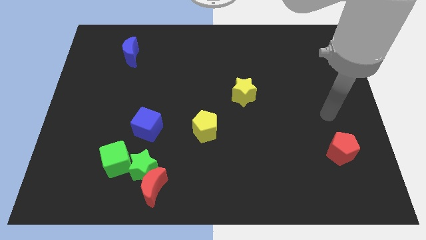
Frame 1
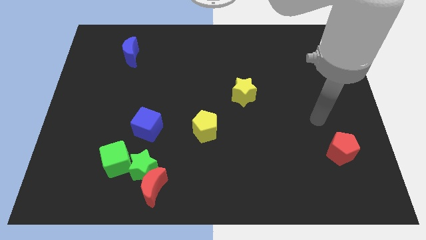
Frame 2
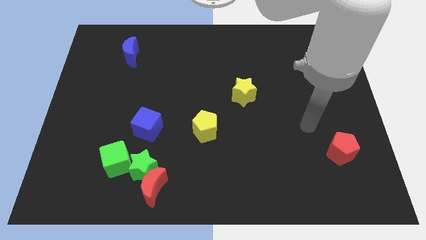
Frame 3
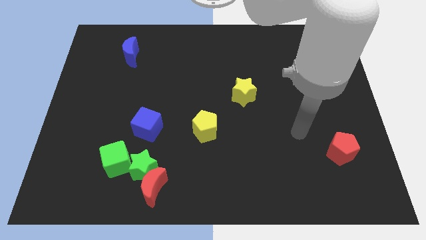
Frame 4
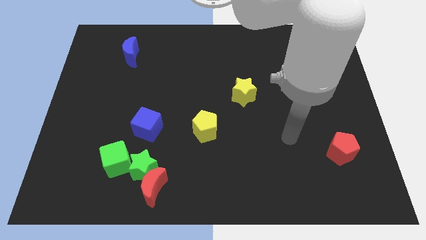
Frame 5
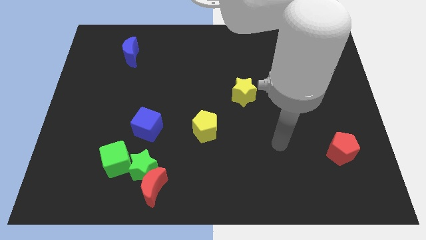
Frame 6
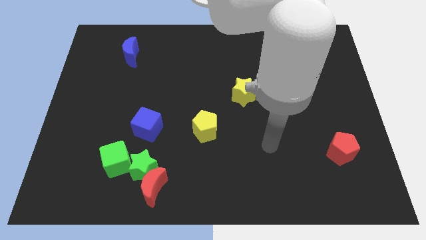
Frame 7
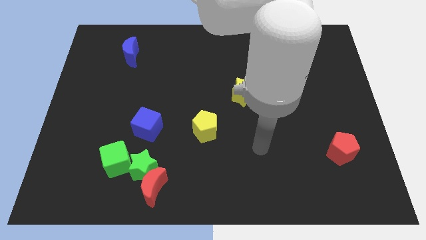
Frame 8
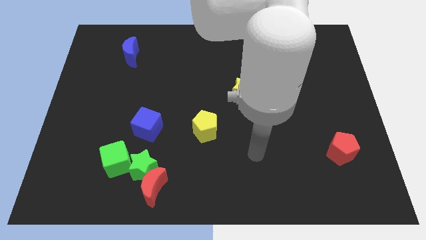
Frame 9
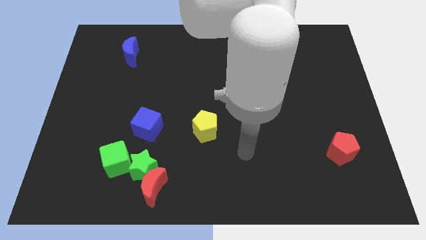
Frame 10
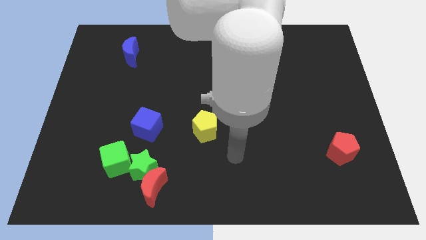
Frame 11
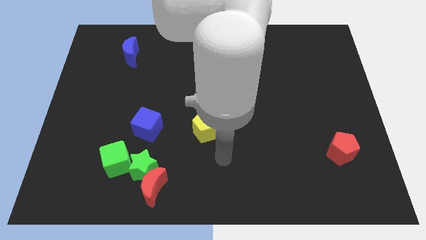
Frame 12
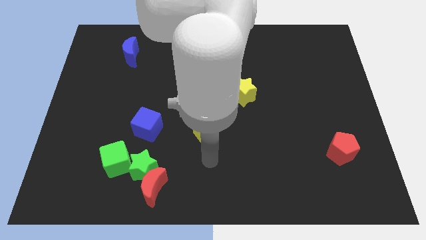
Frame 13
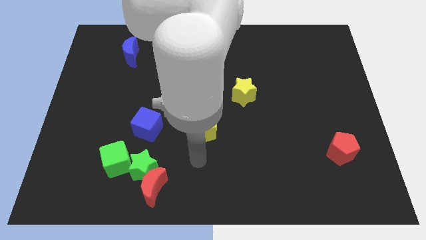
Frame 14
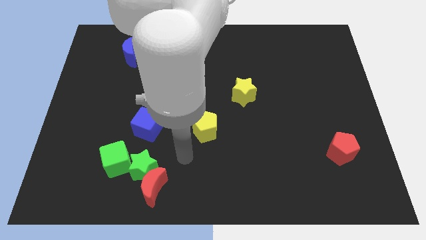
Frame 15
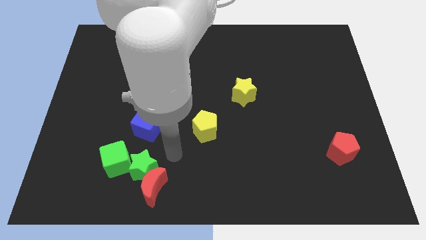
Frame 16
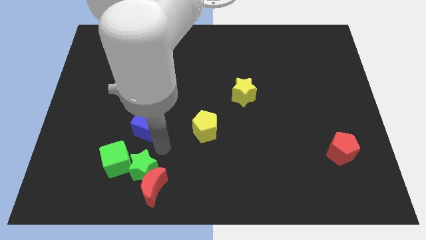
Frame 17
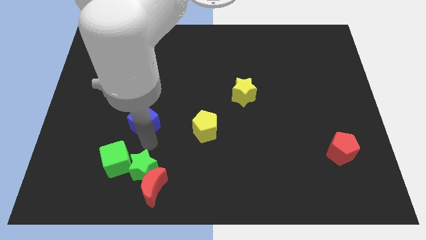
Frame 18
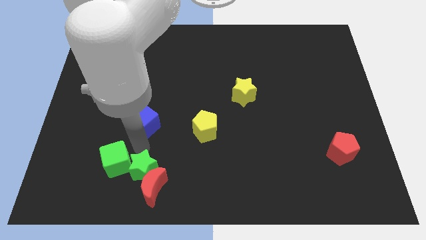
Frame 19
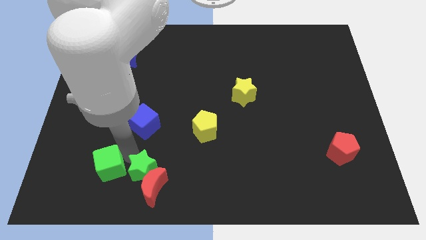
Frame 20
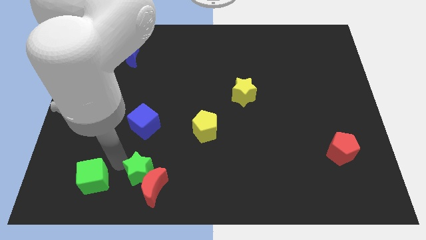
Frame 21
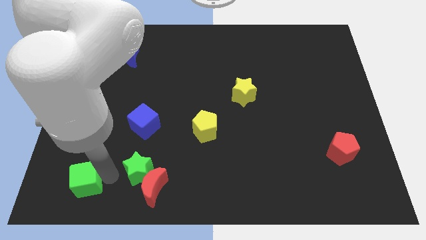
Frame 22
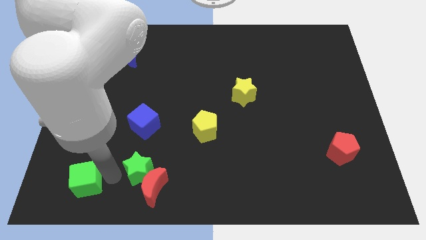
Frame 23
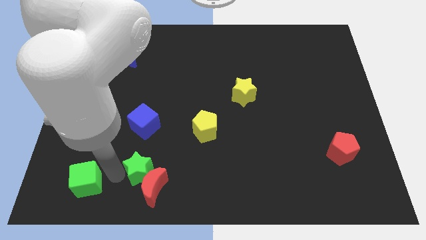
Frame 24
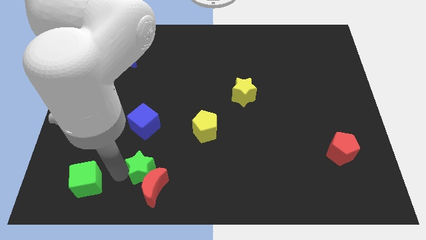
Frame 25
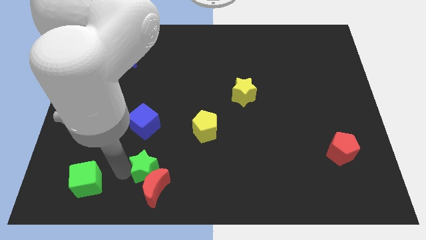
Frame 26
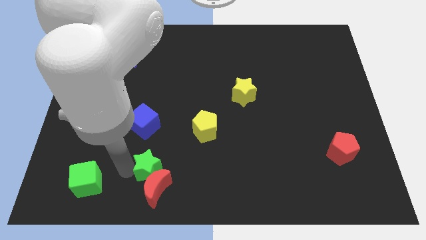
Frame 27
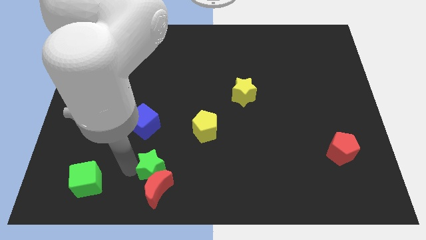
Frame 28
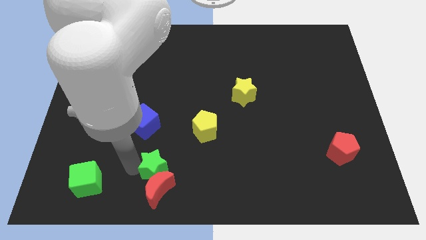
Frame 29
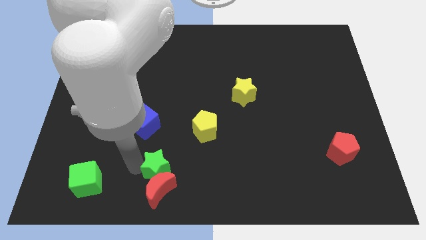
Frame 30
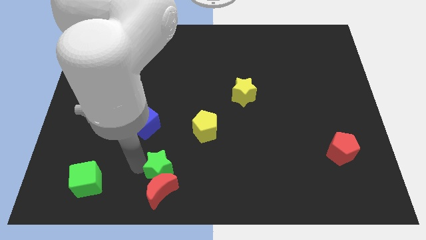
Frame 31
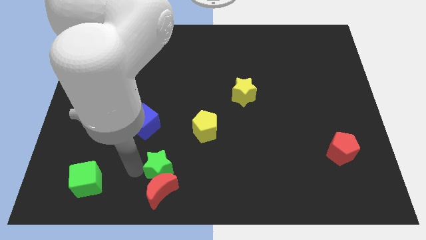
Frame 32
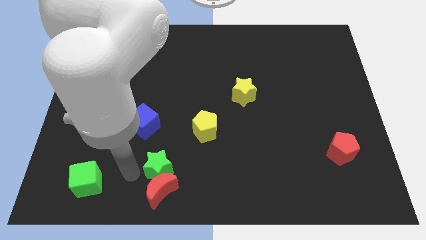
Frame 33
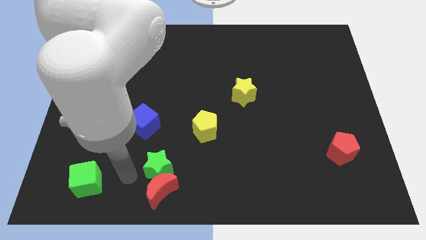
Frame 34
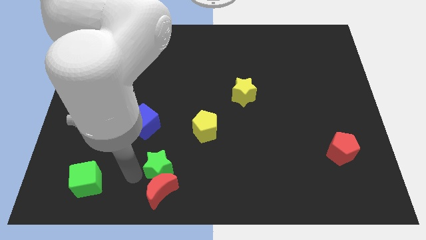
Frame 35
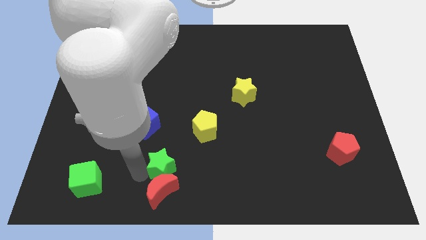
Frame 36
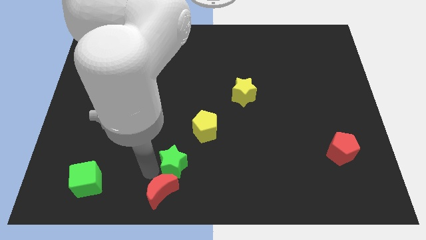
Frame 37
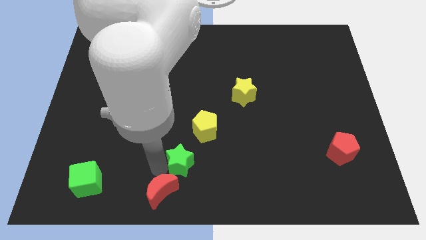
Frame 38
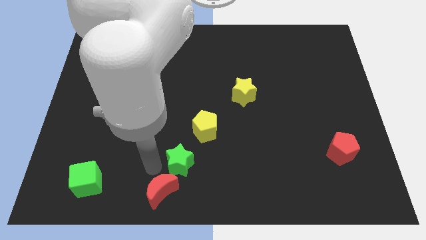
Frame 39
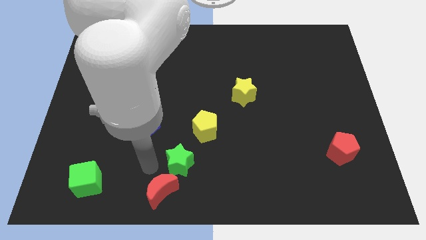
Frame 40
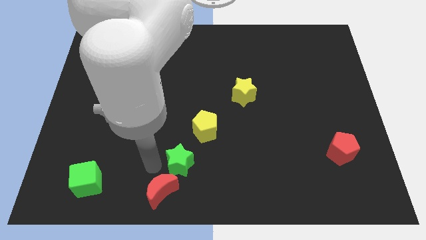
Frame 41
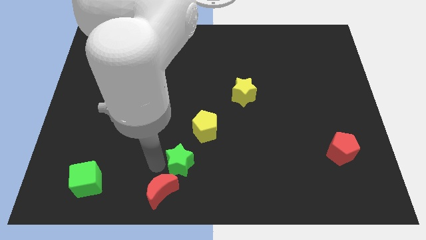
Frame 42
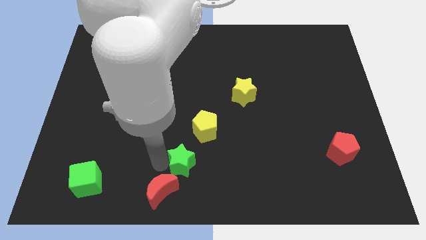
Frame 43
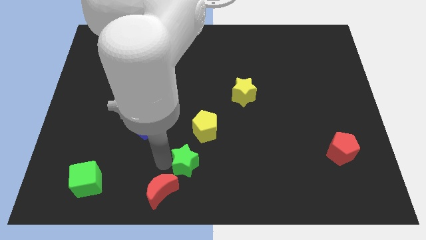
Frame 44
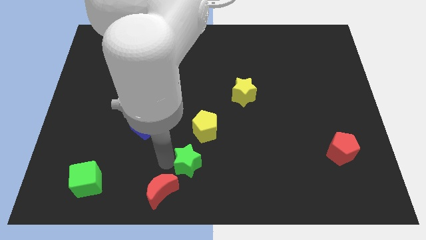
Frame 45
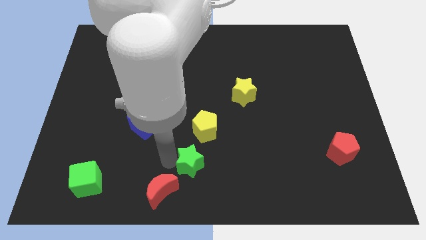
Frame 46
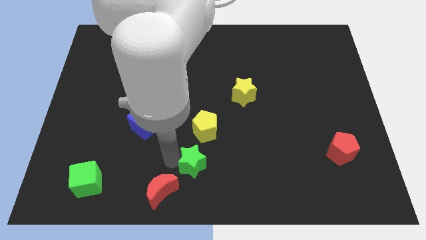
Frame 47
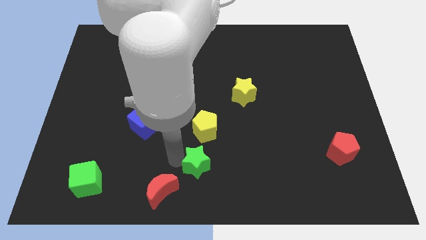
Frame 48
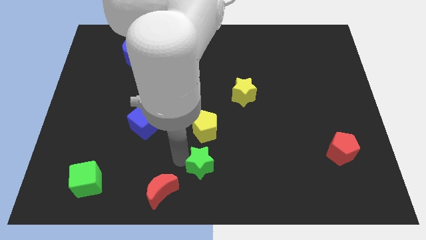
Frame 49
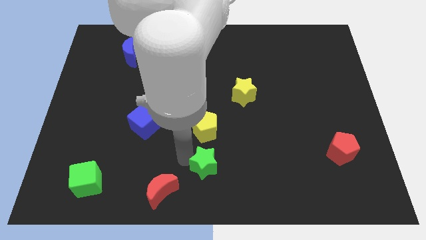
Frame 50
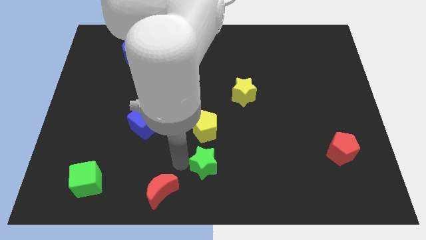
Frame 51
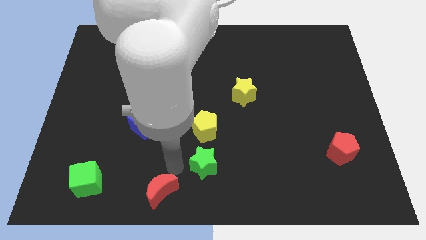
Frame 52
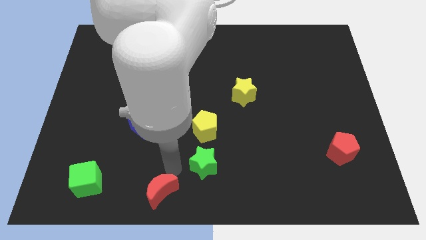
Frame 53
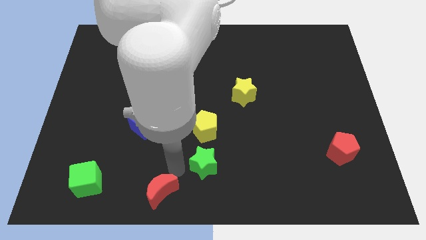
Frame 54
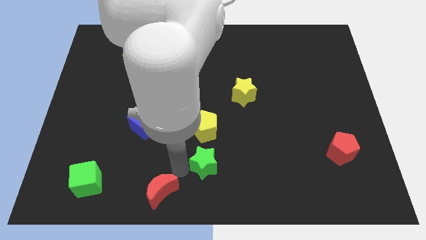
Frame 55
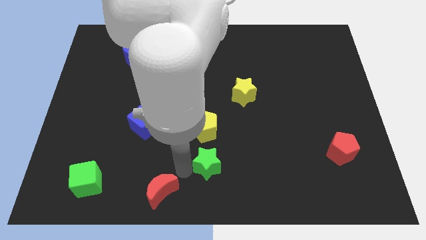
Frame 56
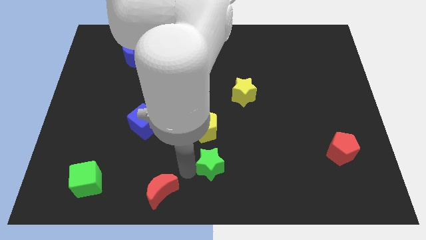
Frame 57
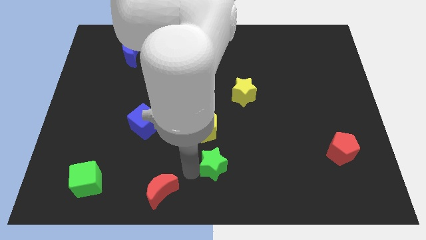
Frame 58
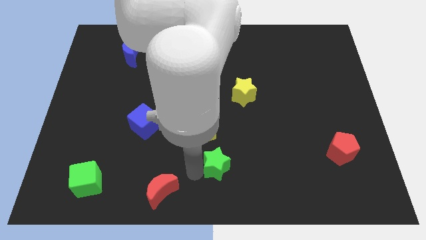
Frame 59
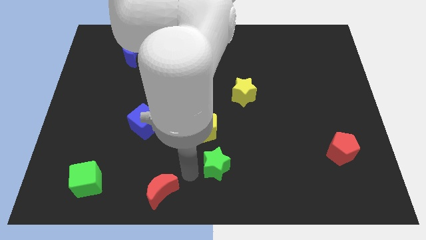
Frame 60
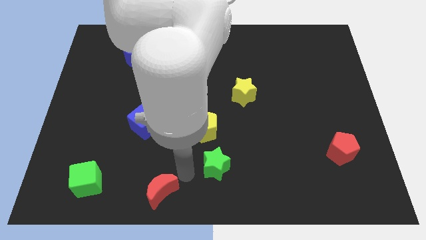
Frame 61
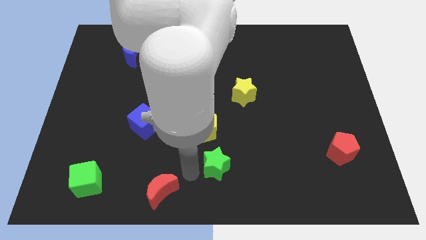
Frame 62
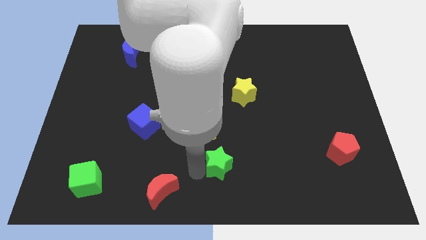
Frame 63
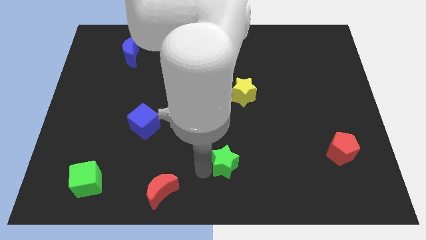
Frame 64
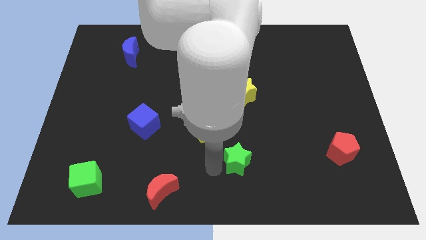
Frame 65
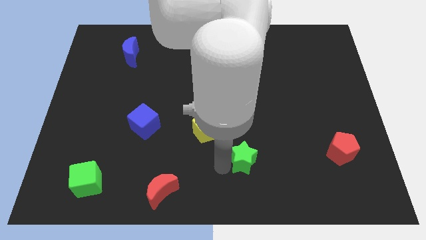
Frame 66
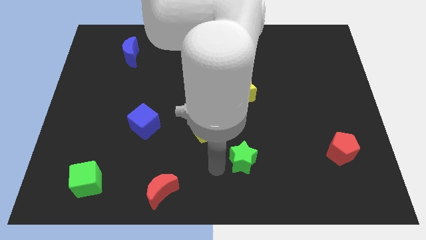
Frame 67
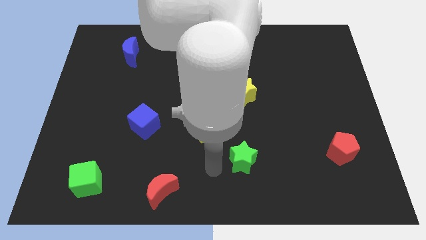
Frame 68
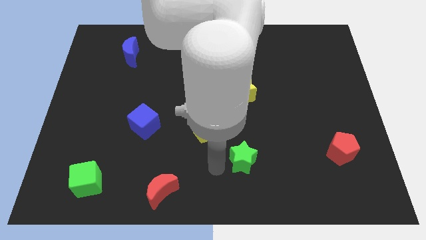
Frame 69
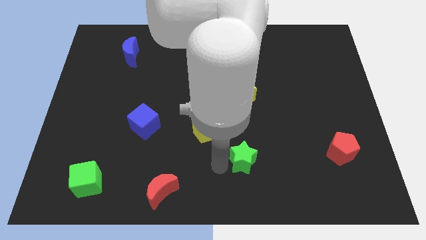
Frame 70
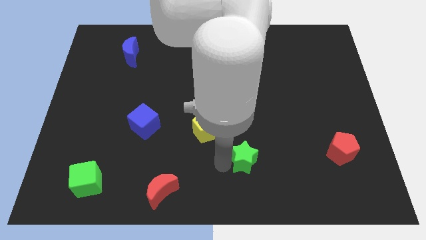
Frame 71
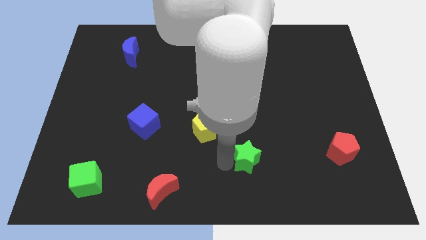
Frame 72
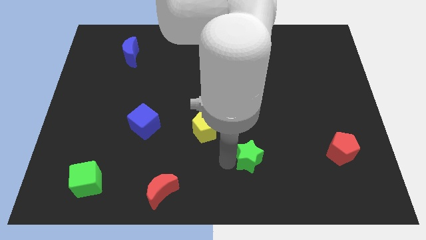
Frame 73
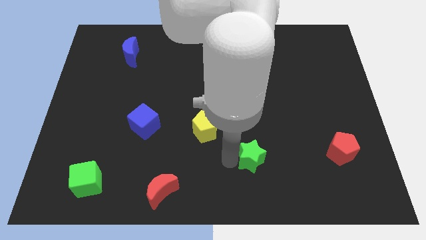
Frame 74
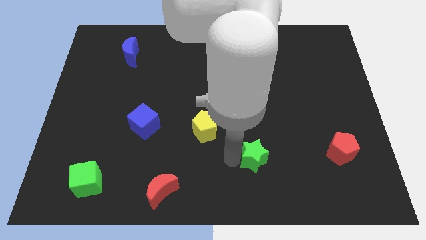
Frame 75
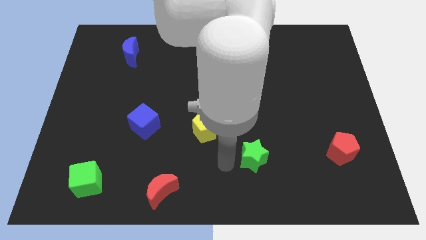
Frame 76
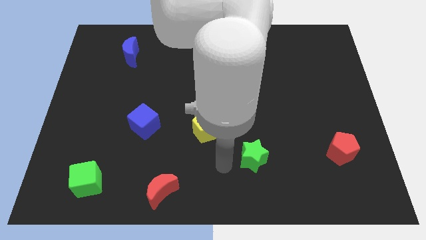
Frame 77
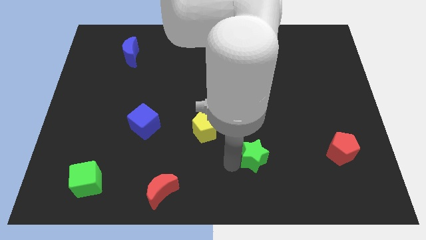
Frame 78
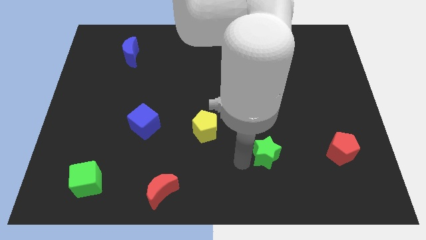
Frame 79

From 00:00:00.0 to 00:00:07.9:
move the green star to the left side of the red pentagon
